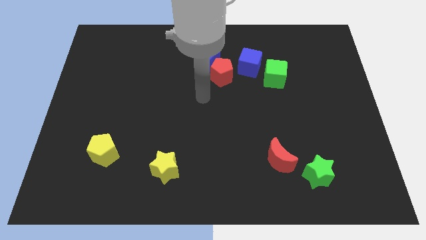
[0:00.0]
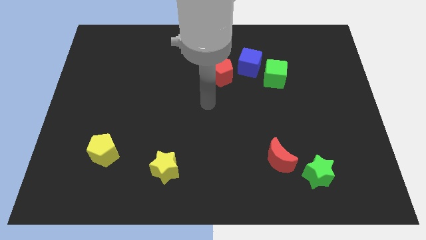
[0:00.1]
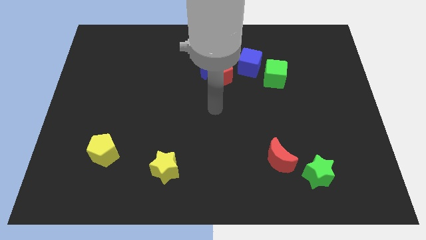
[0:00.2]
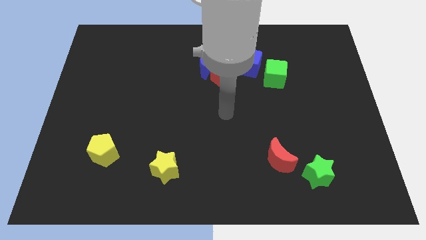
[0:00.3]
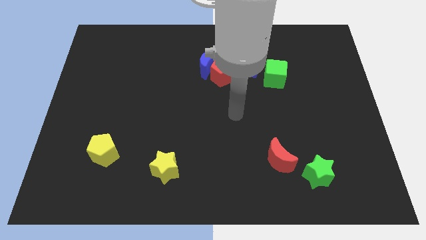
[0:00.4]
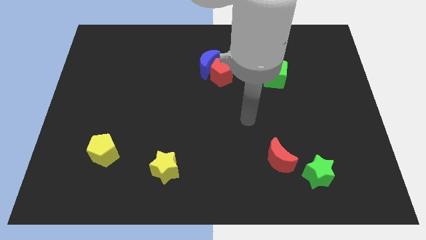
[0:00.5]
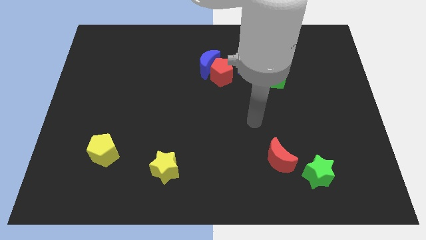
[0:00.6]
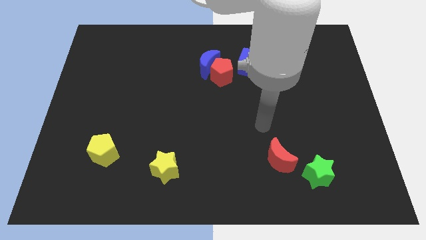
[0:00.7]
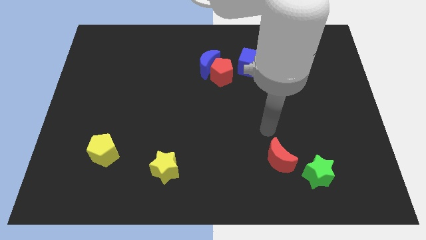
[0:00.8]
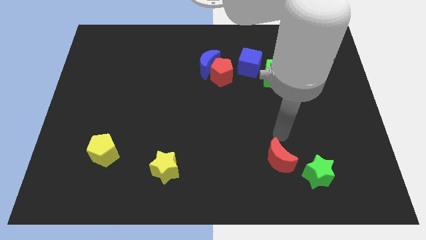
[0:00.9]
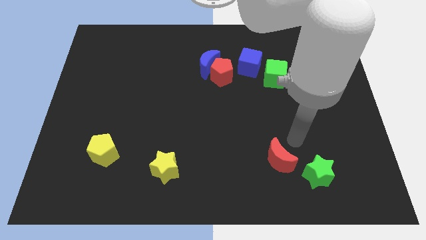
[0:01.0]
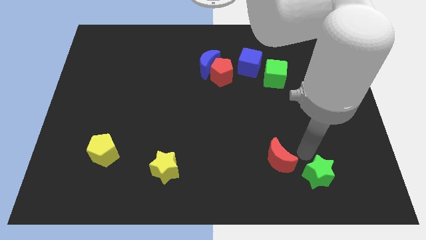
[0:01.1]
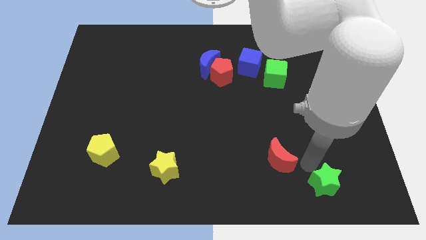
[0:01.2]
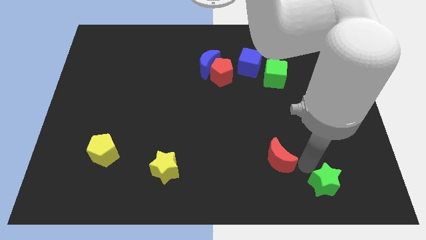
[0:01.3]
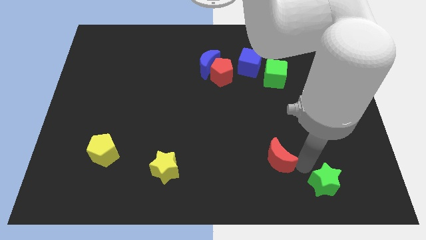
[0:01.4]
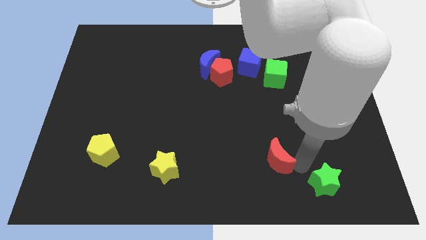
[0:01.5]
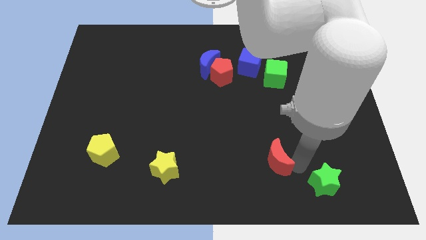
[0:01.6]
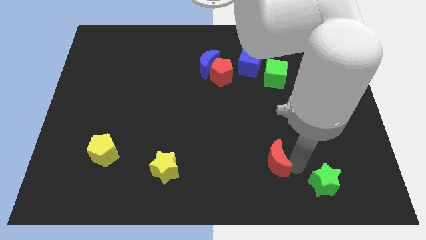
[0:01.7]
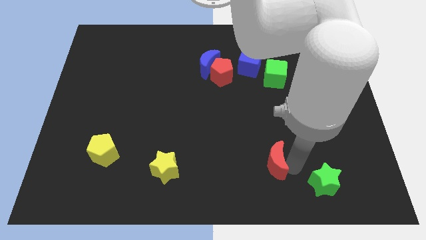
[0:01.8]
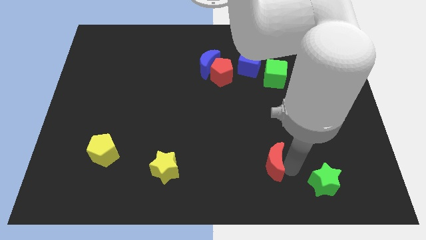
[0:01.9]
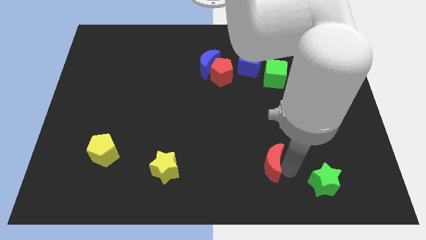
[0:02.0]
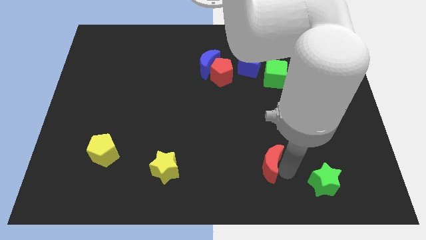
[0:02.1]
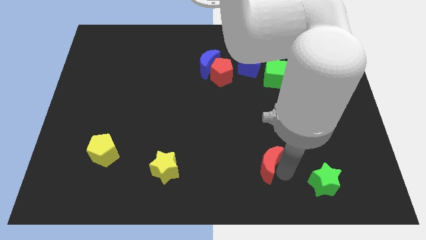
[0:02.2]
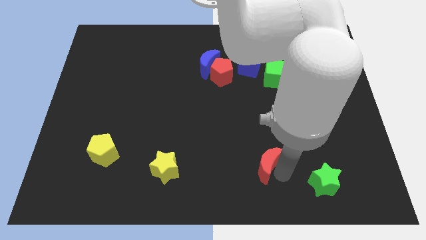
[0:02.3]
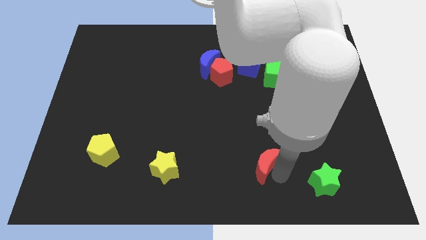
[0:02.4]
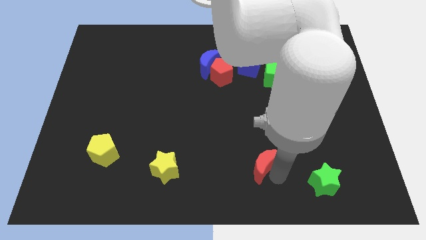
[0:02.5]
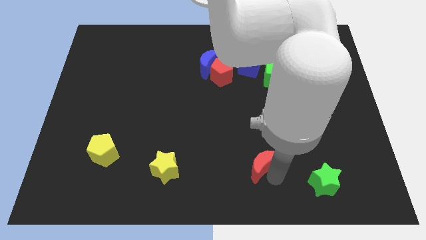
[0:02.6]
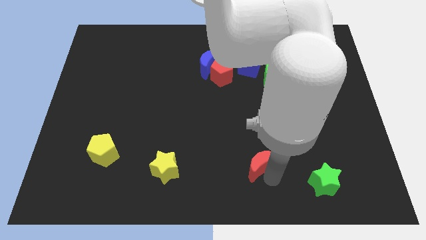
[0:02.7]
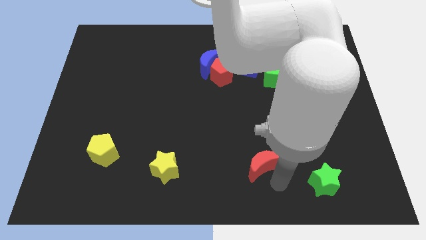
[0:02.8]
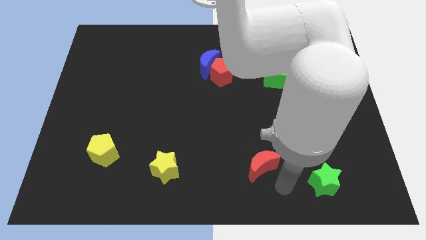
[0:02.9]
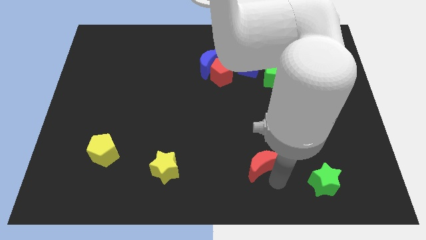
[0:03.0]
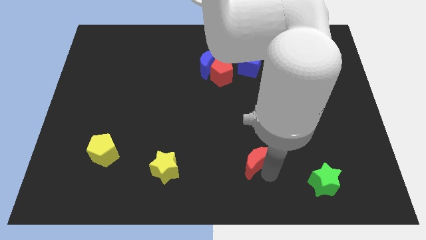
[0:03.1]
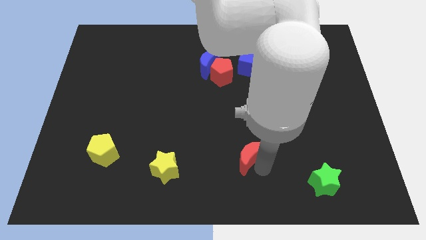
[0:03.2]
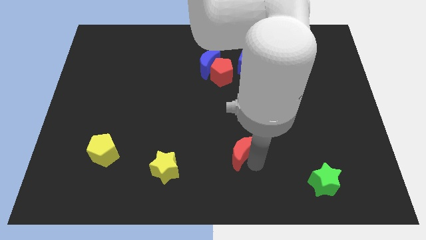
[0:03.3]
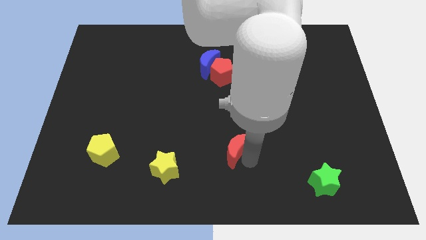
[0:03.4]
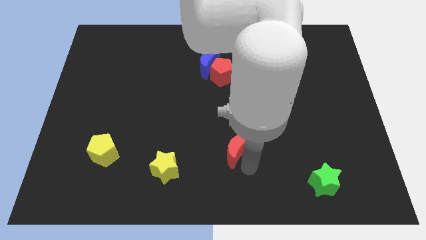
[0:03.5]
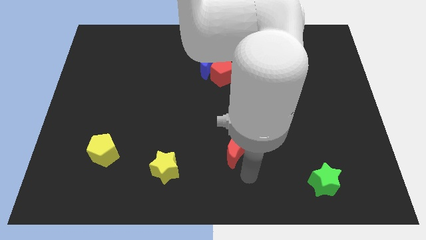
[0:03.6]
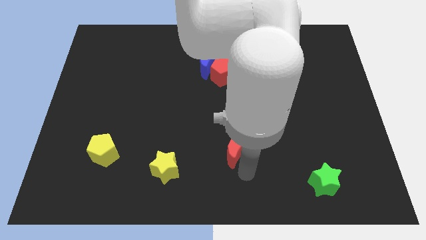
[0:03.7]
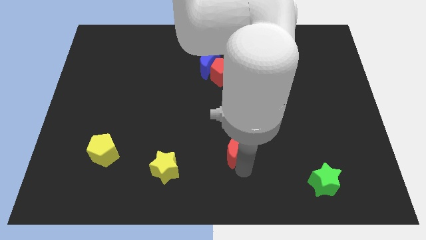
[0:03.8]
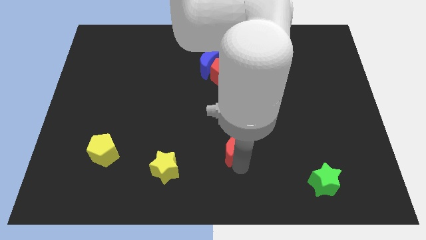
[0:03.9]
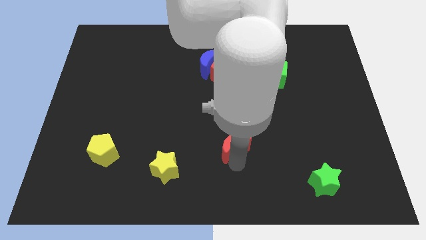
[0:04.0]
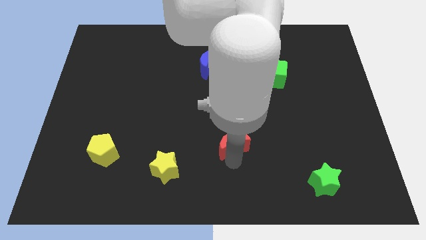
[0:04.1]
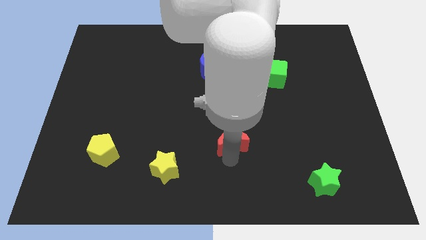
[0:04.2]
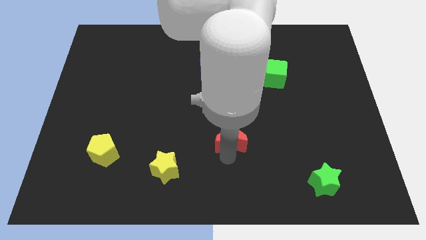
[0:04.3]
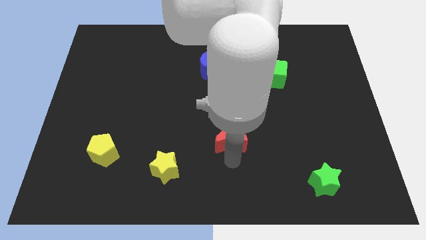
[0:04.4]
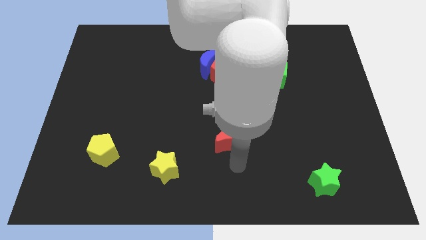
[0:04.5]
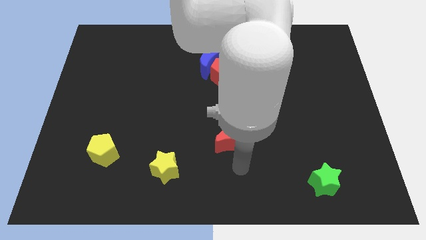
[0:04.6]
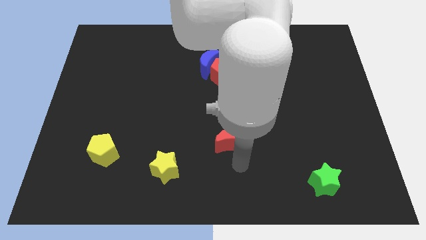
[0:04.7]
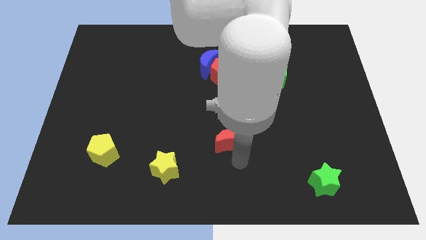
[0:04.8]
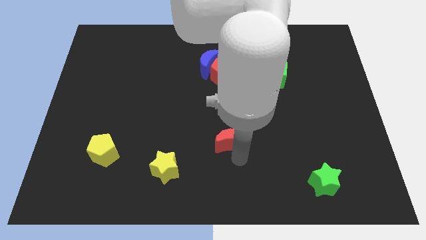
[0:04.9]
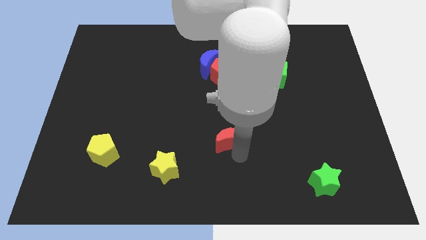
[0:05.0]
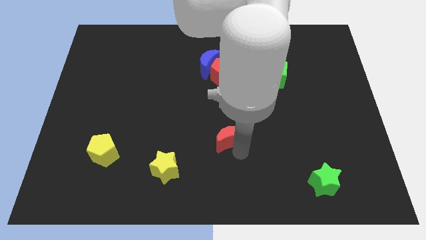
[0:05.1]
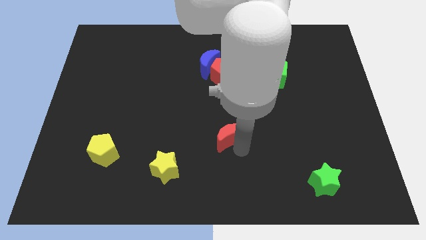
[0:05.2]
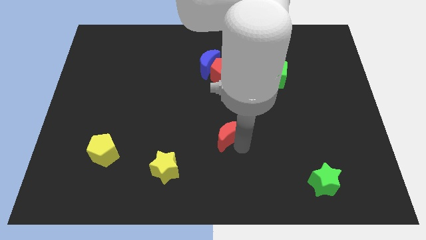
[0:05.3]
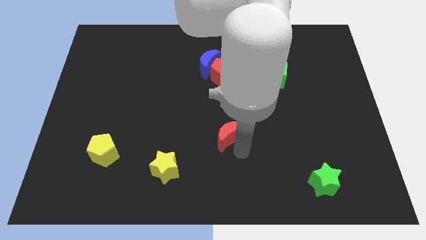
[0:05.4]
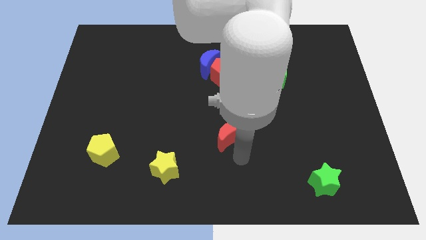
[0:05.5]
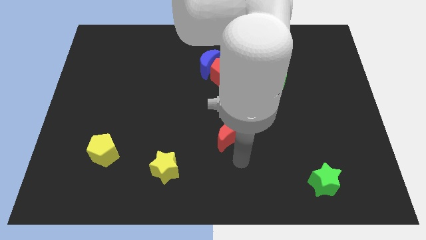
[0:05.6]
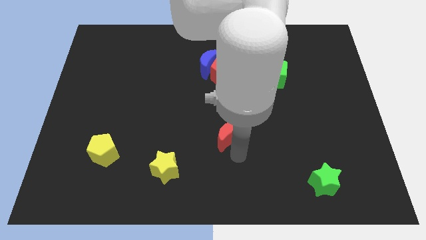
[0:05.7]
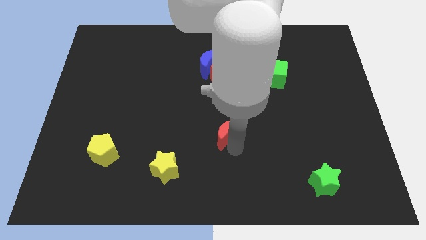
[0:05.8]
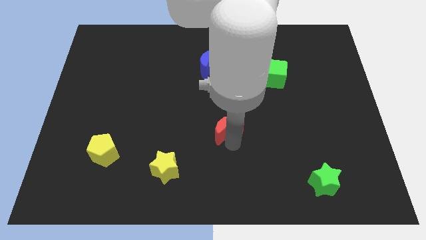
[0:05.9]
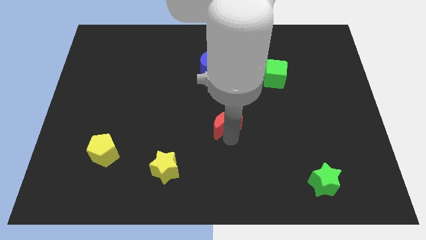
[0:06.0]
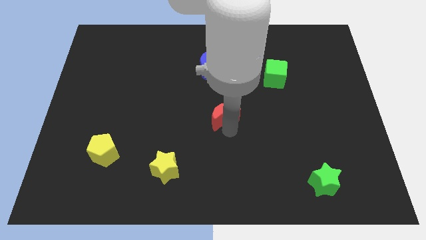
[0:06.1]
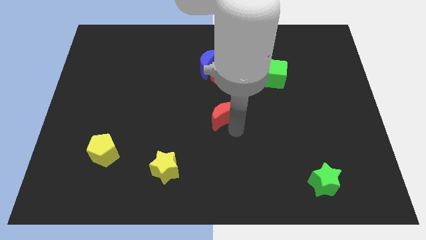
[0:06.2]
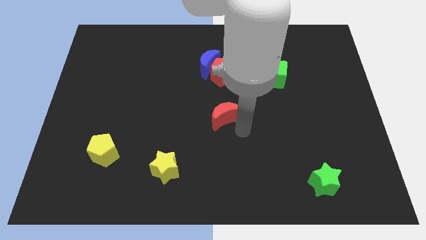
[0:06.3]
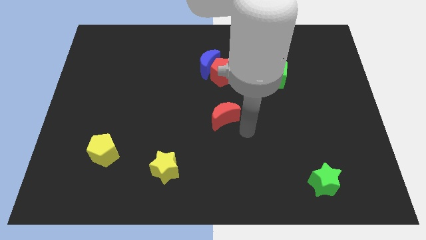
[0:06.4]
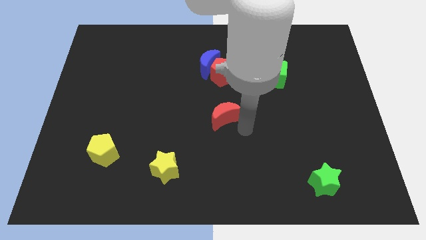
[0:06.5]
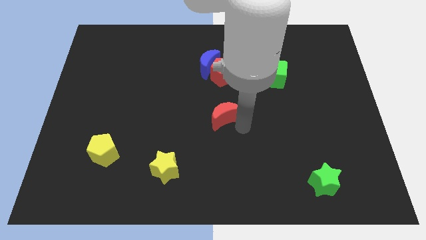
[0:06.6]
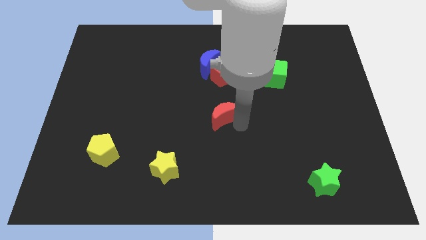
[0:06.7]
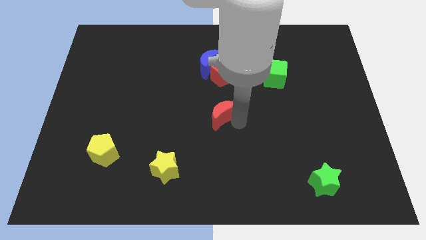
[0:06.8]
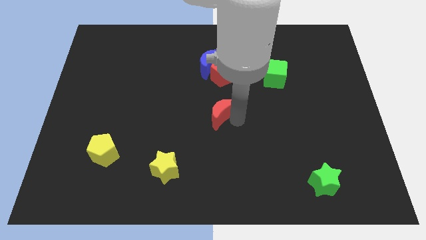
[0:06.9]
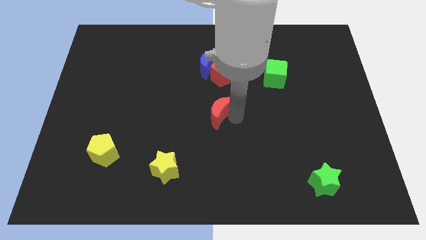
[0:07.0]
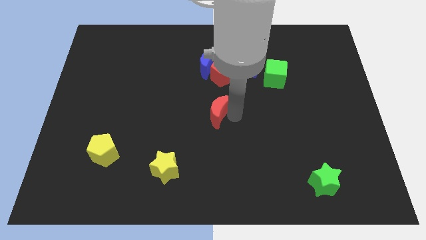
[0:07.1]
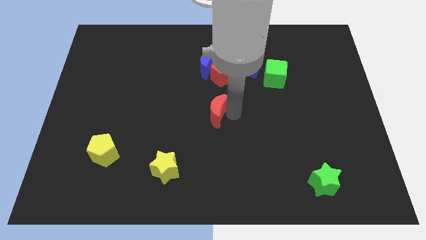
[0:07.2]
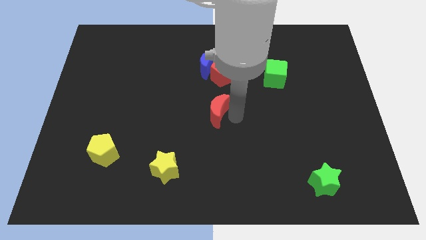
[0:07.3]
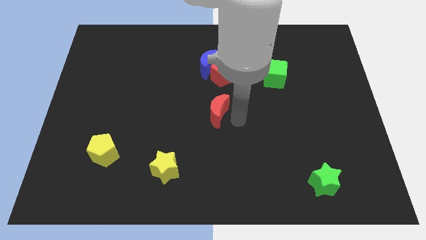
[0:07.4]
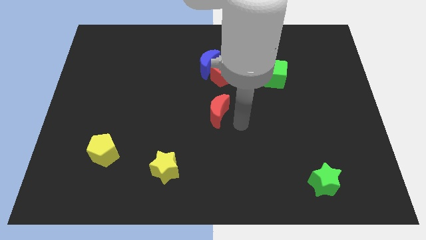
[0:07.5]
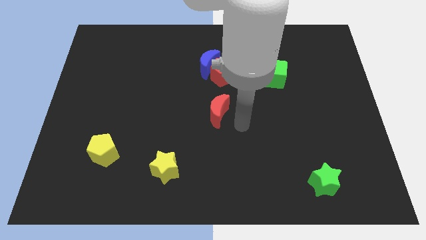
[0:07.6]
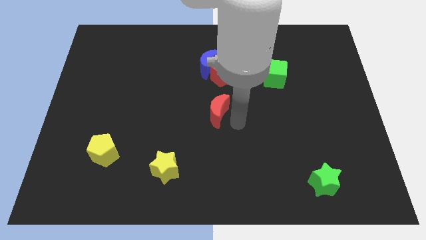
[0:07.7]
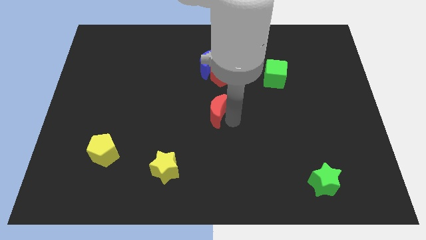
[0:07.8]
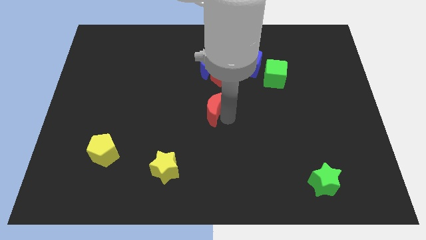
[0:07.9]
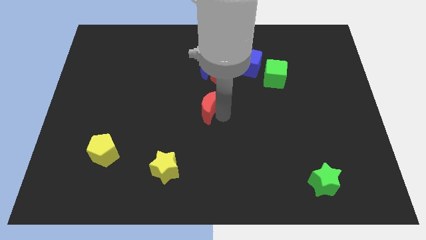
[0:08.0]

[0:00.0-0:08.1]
slide the red moon diagonally up and left

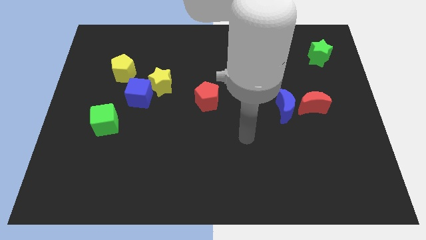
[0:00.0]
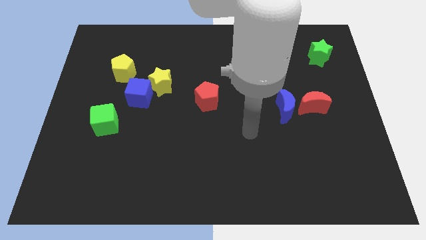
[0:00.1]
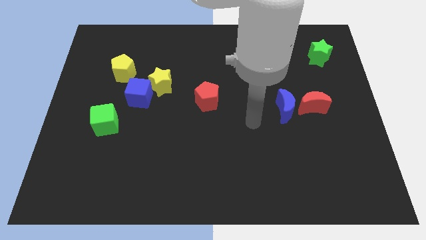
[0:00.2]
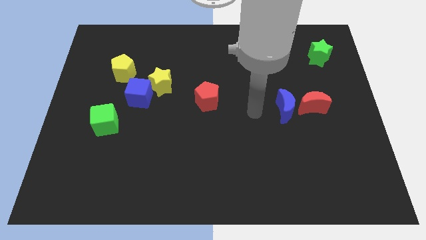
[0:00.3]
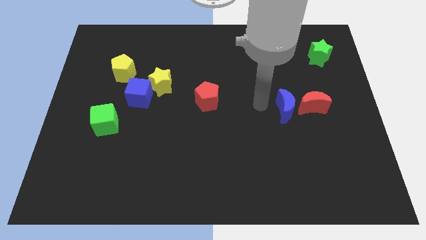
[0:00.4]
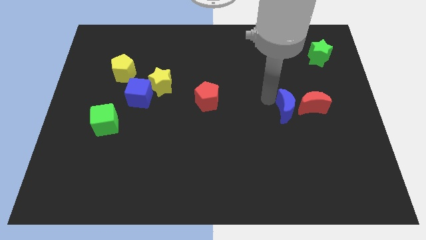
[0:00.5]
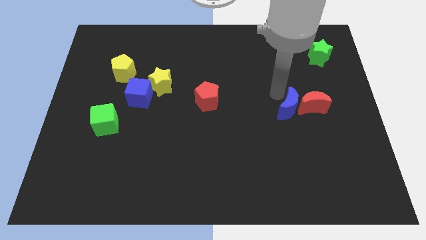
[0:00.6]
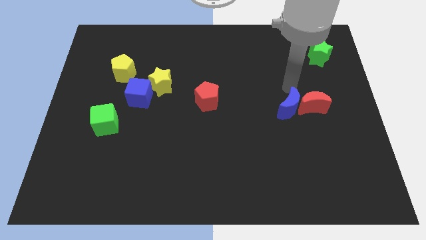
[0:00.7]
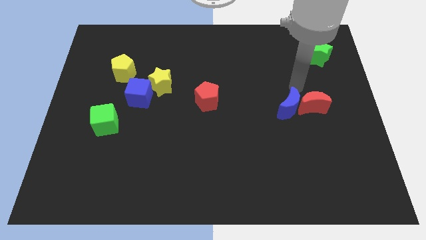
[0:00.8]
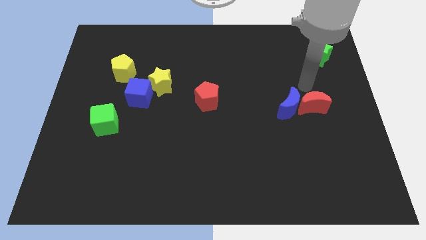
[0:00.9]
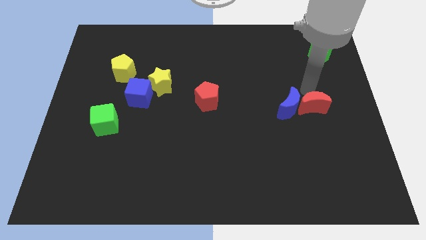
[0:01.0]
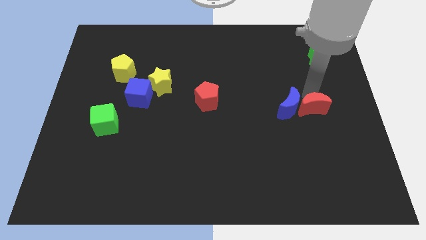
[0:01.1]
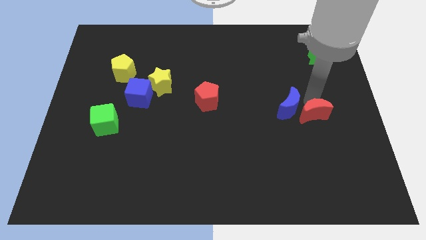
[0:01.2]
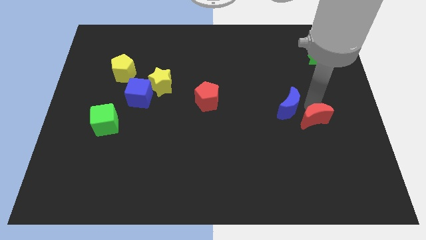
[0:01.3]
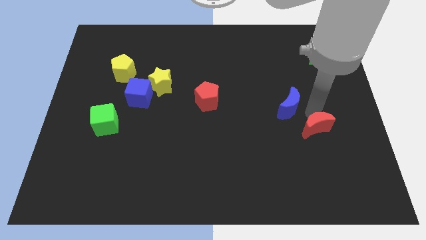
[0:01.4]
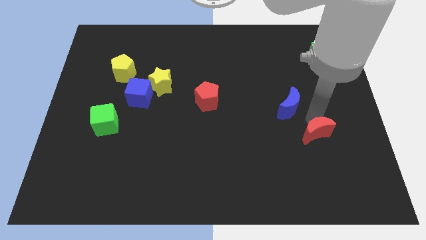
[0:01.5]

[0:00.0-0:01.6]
move the red moon somewhat downwards
